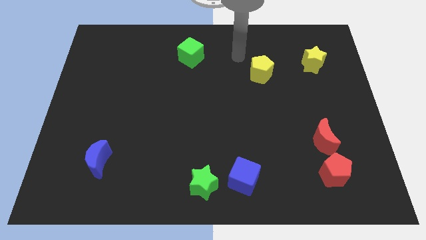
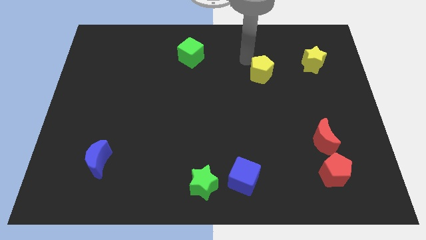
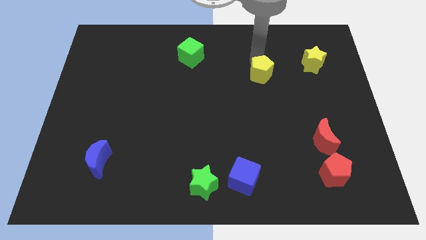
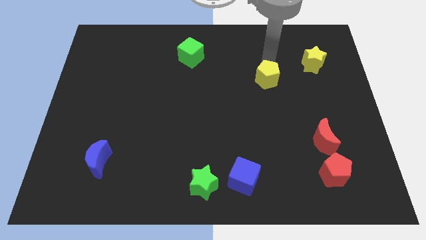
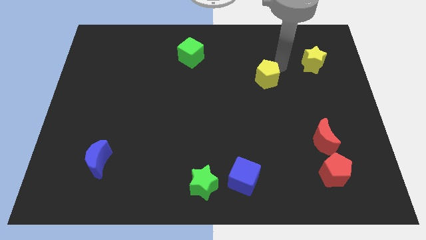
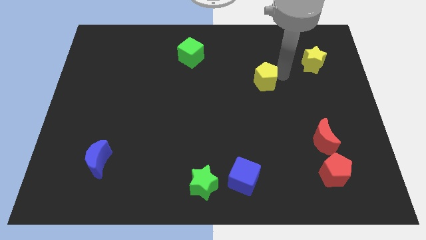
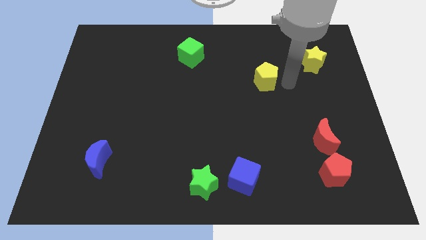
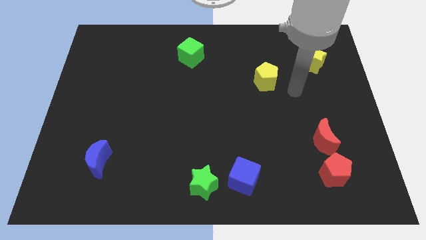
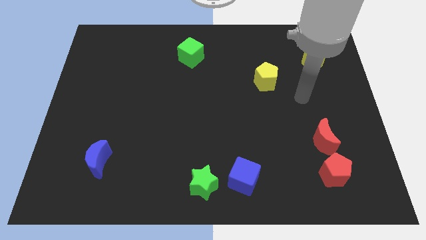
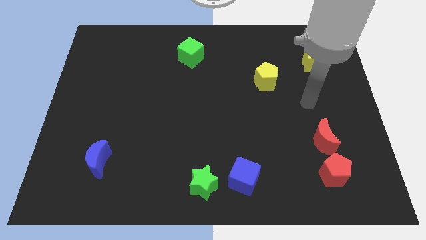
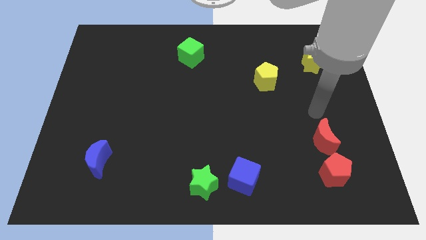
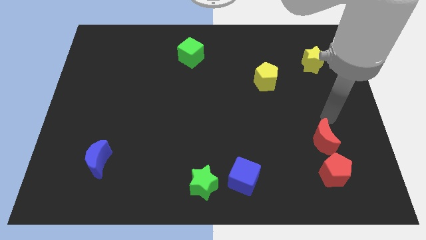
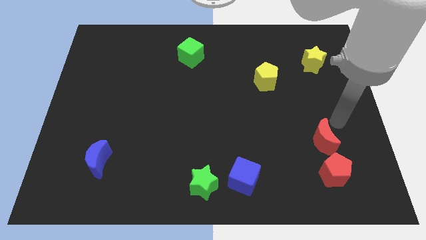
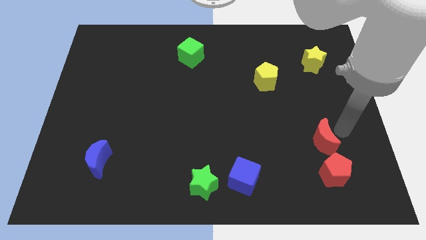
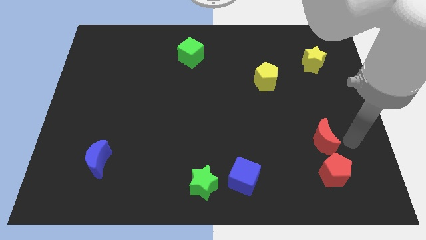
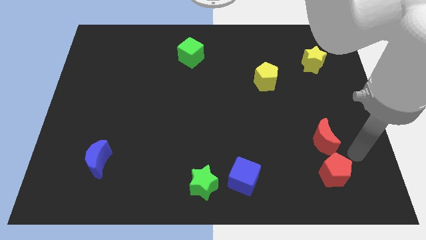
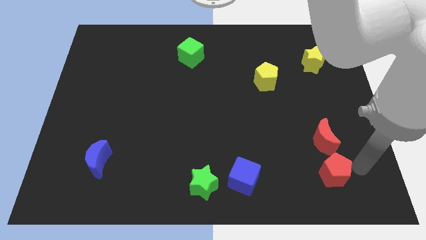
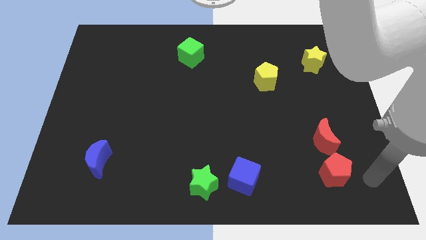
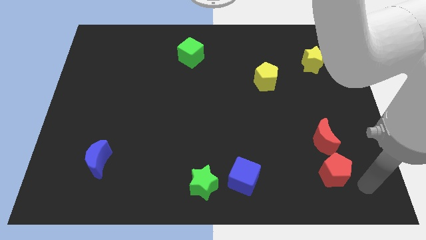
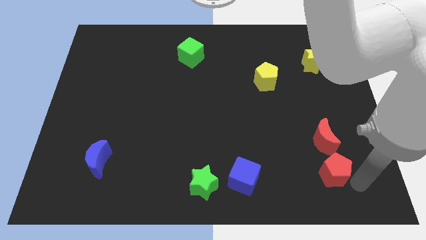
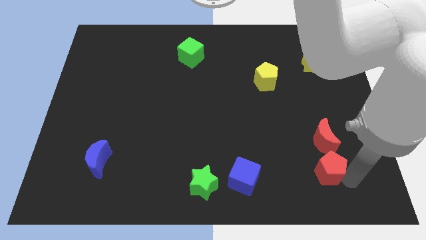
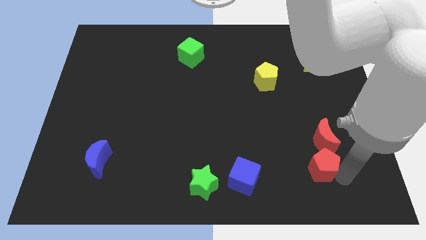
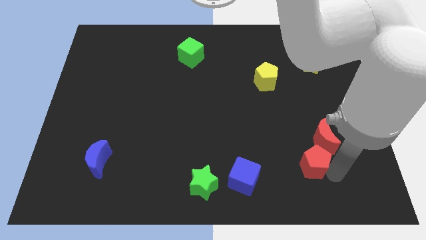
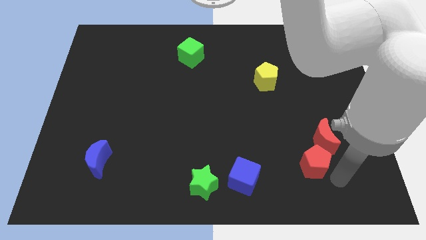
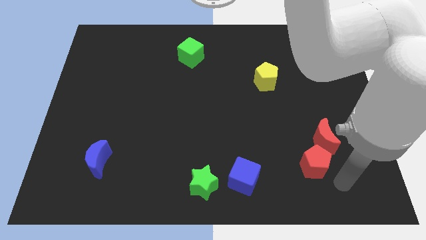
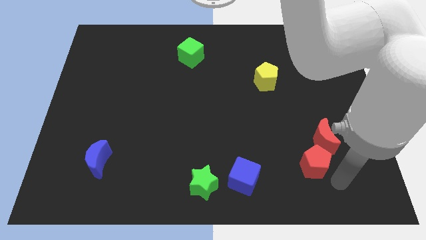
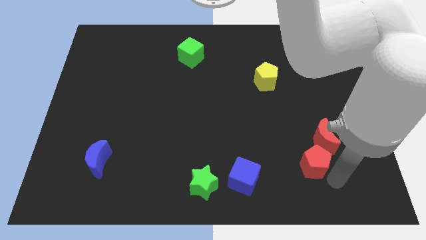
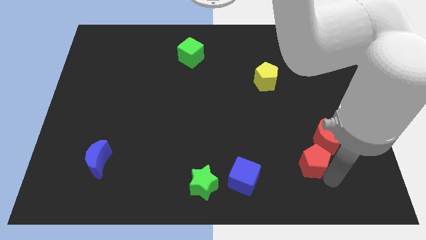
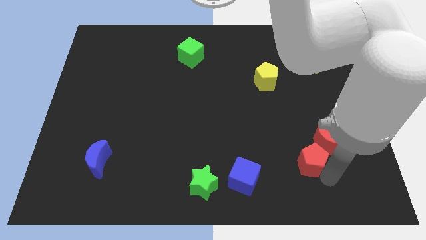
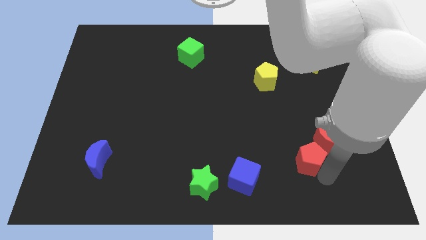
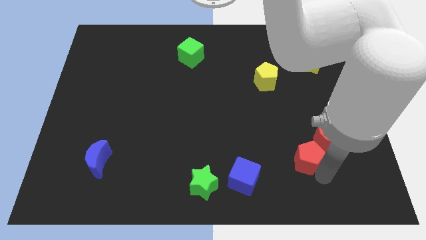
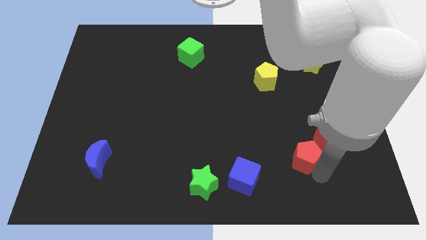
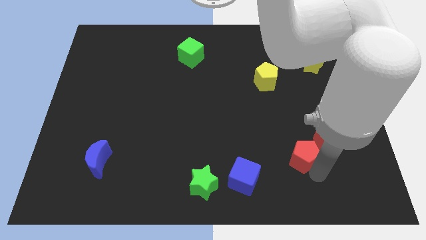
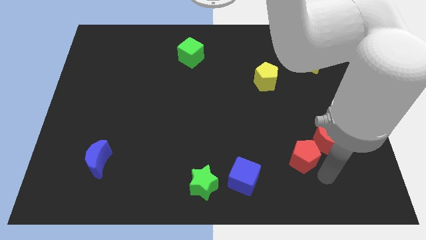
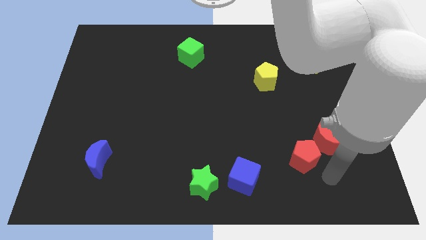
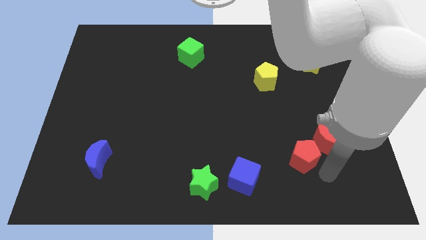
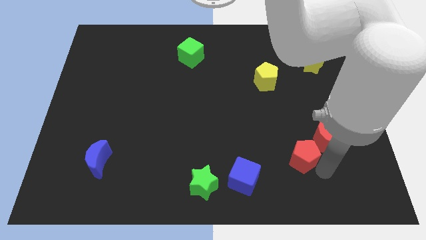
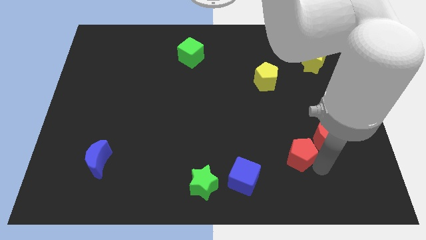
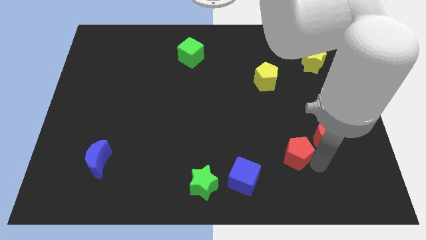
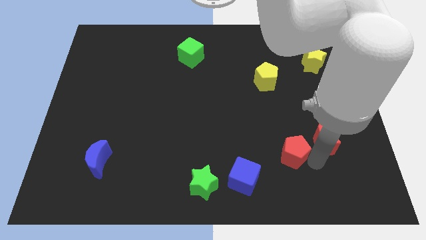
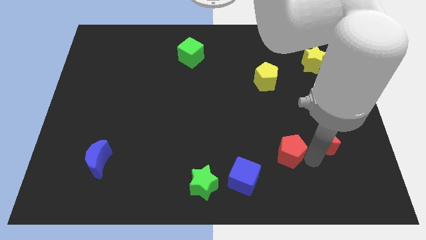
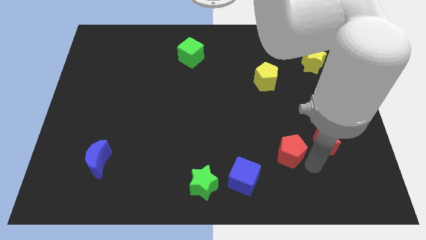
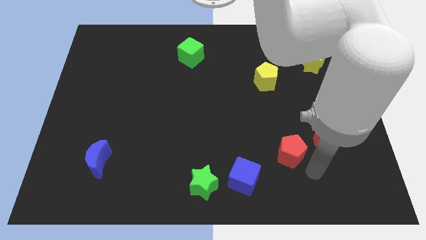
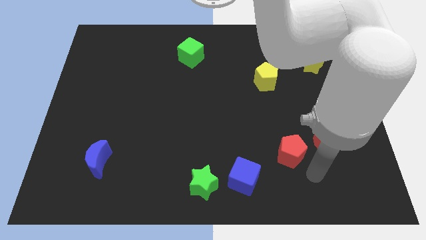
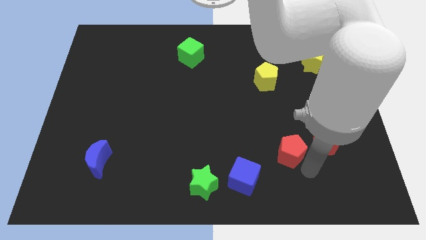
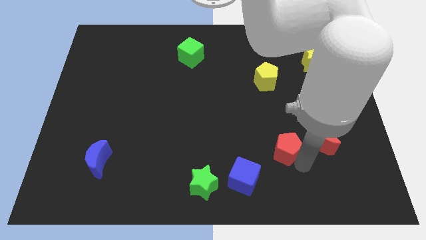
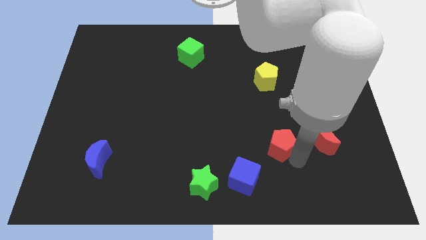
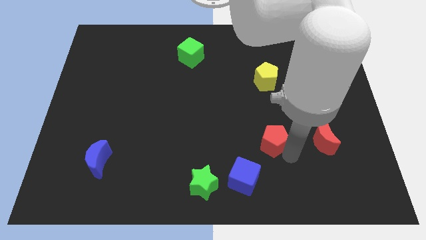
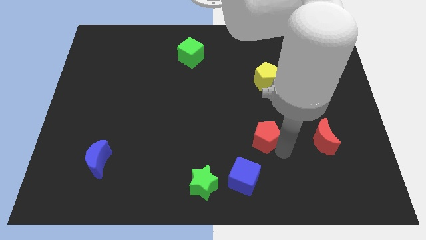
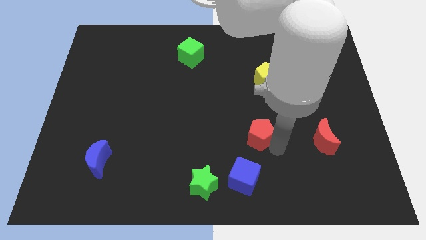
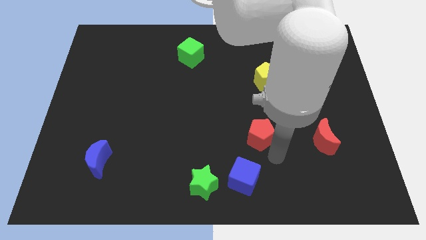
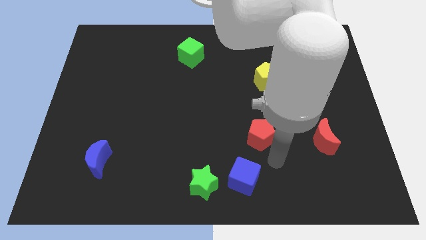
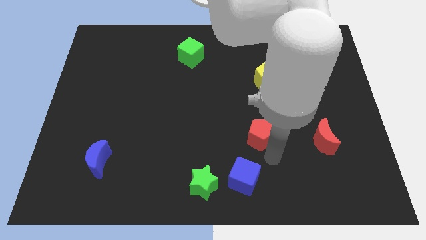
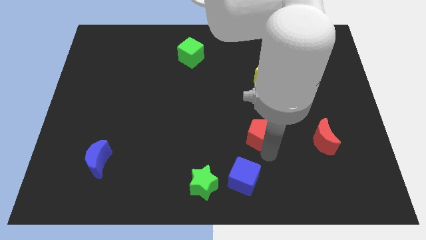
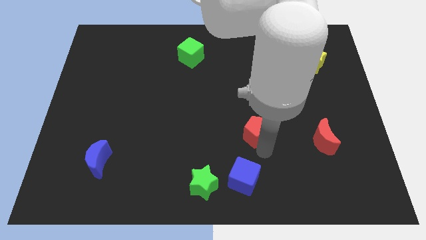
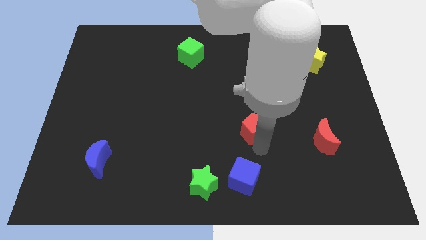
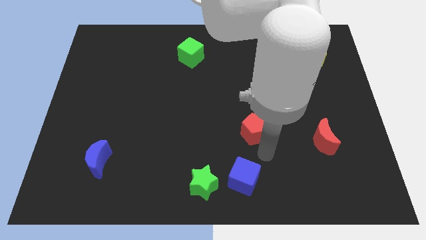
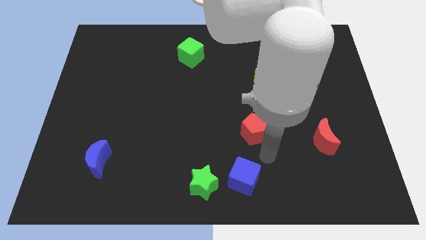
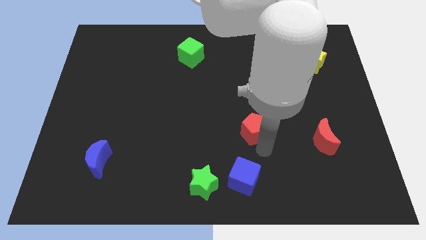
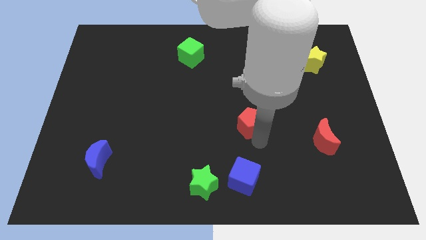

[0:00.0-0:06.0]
slide the red pentagon up and to the left

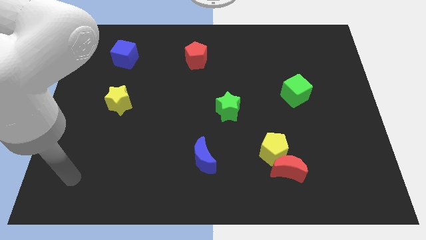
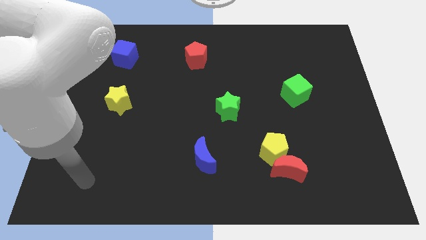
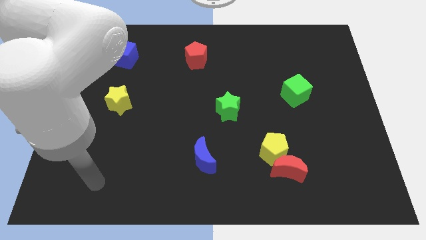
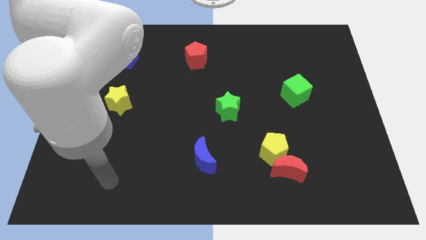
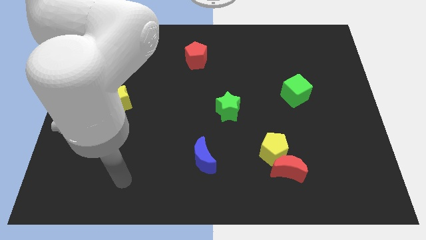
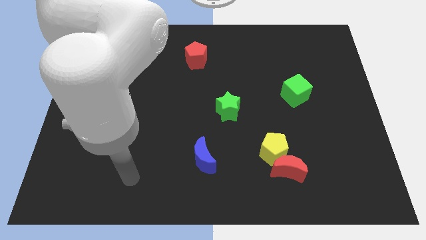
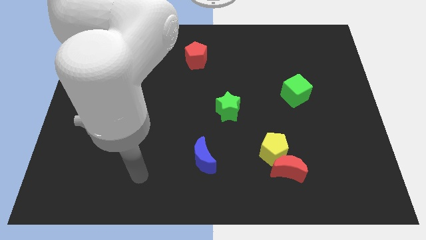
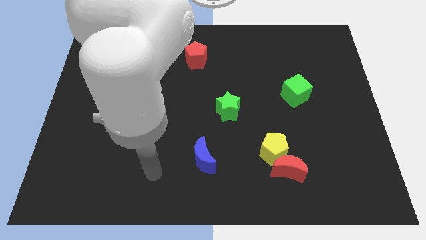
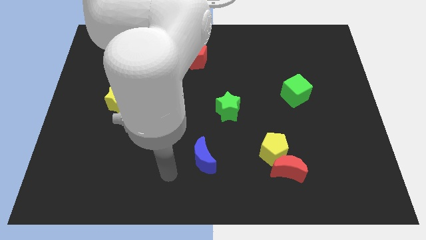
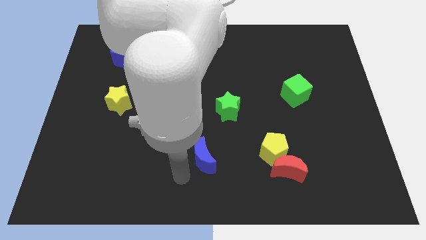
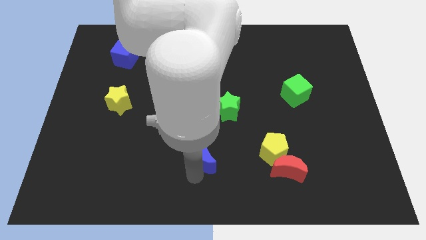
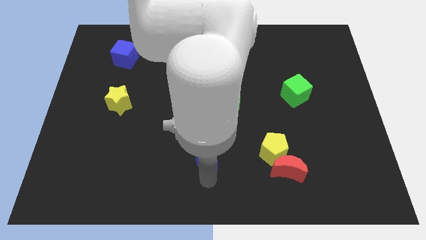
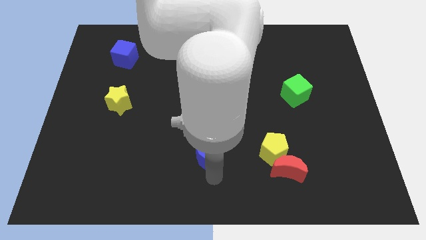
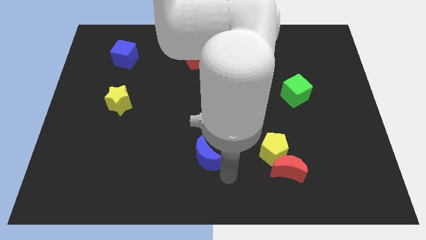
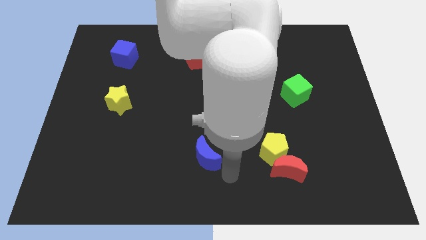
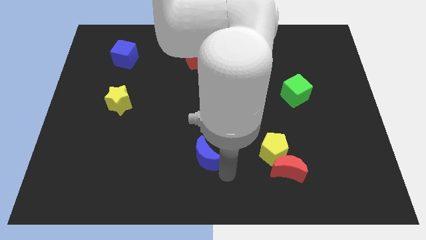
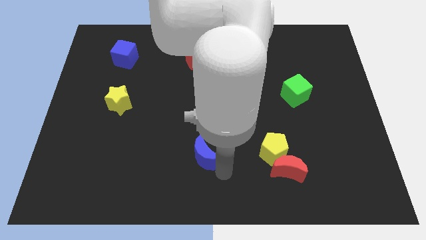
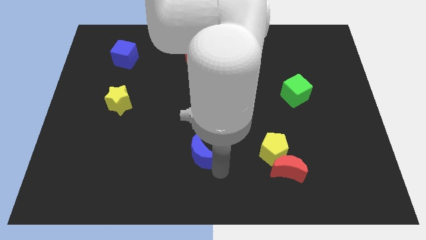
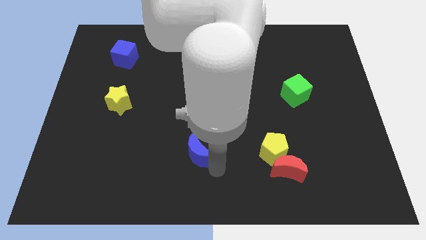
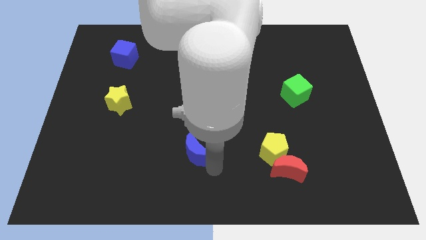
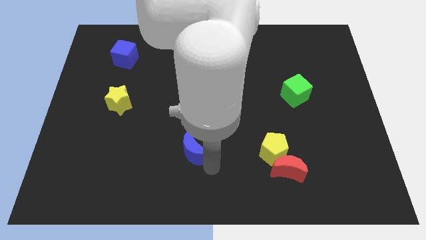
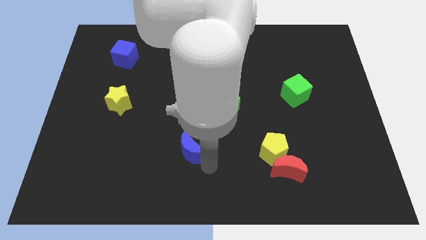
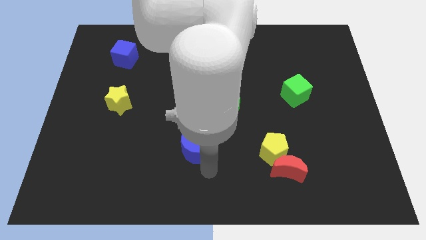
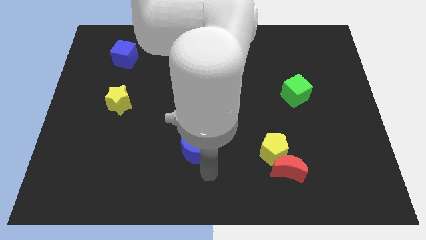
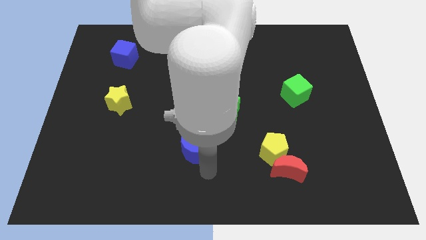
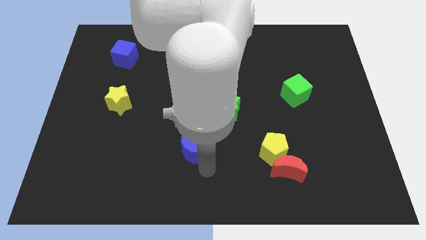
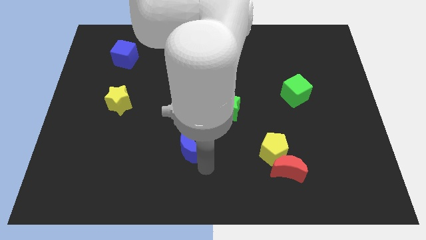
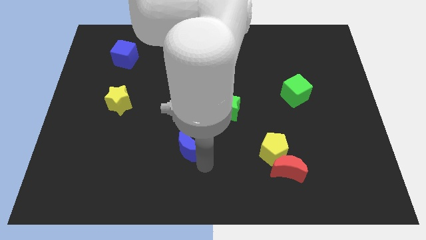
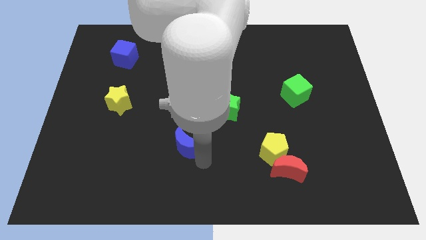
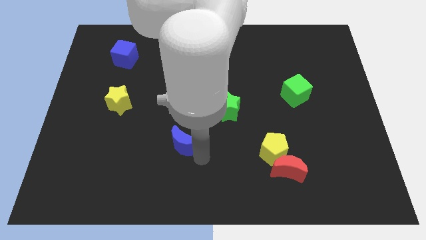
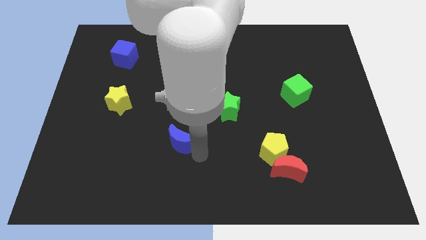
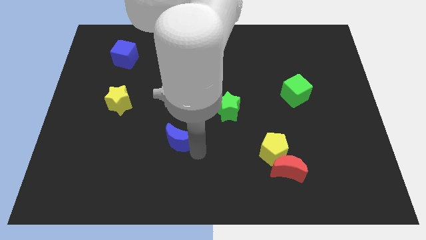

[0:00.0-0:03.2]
push the blue moon slightly upwards and left
